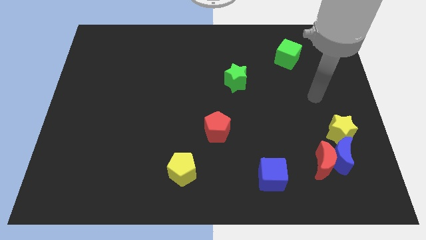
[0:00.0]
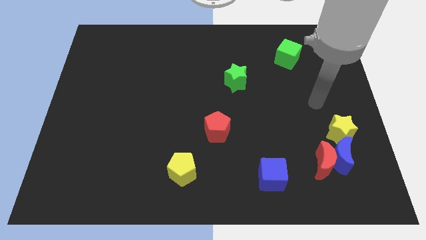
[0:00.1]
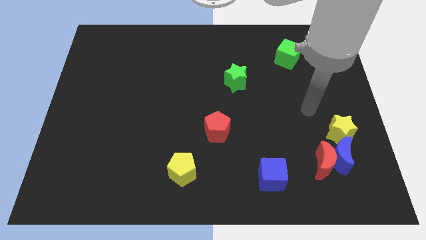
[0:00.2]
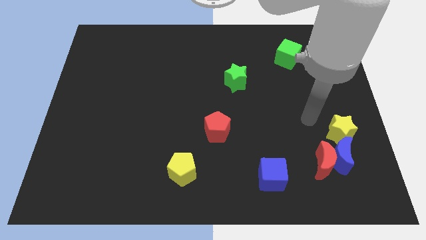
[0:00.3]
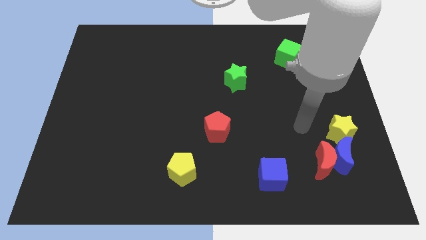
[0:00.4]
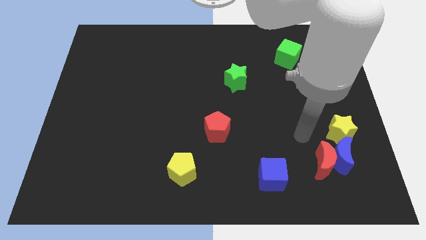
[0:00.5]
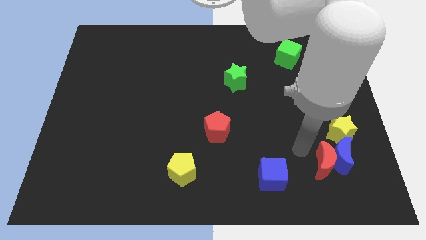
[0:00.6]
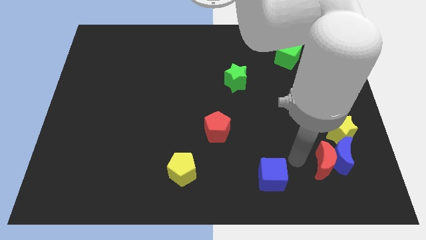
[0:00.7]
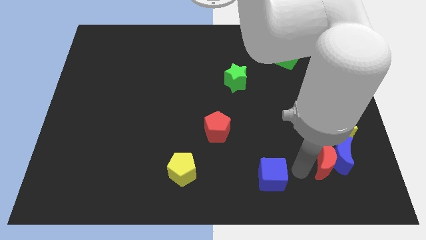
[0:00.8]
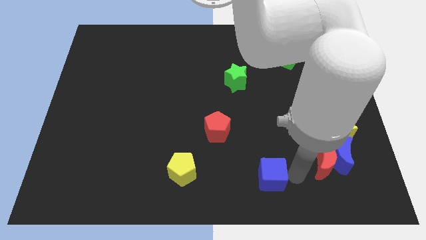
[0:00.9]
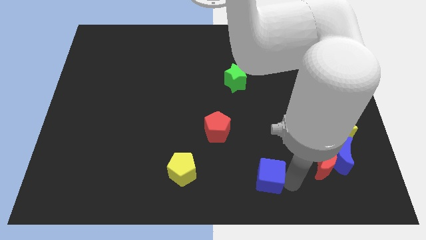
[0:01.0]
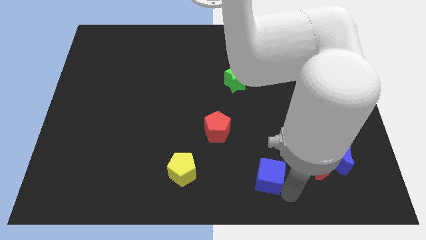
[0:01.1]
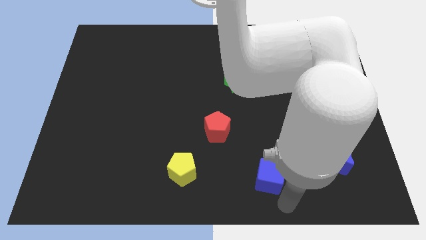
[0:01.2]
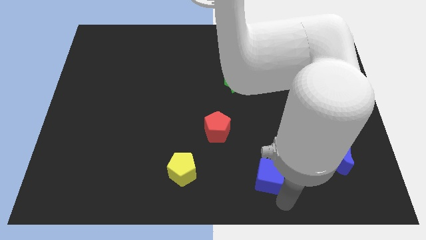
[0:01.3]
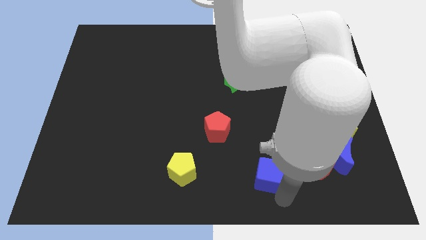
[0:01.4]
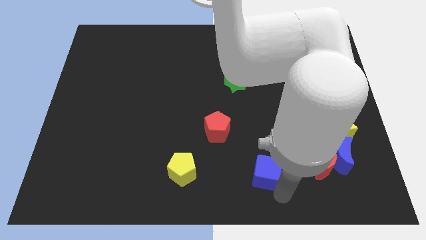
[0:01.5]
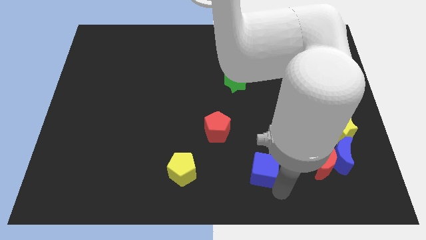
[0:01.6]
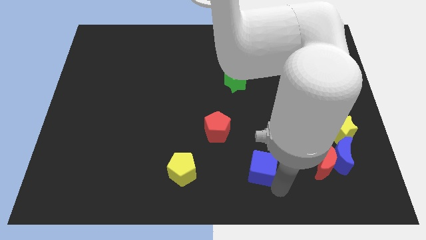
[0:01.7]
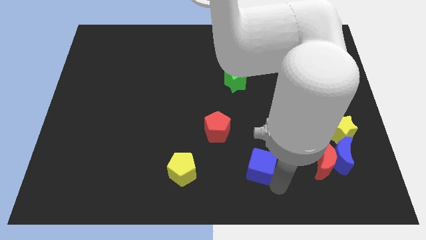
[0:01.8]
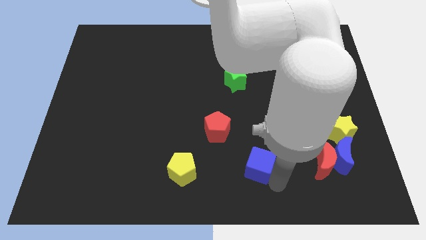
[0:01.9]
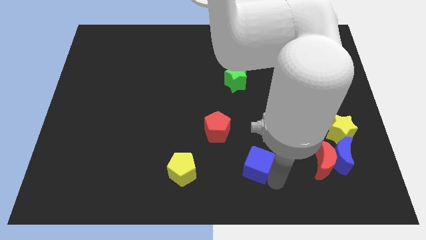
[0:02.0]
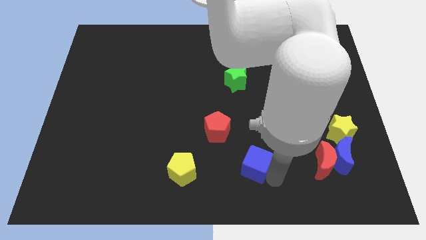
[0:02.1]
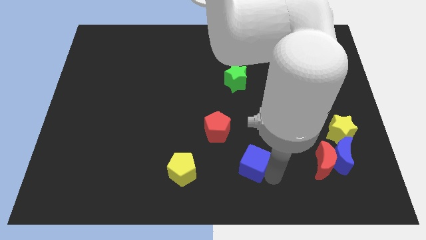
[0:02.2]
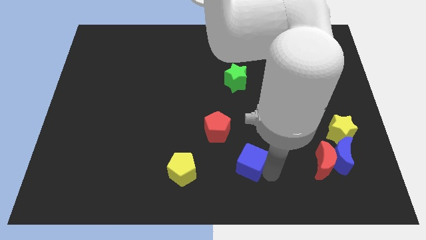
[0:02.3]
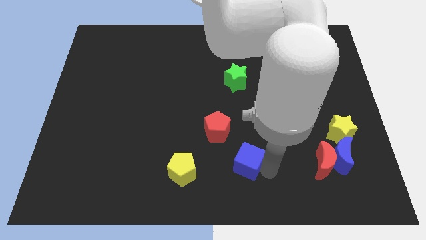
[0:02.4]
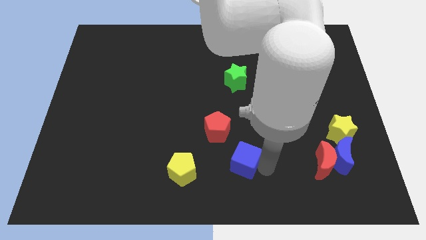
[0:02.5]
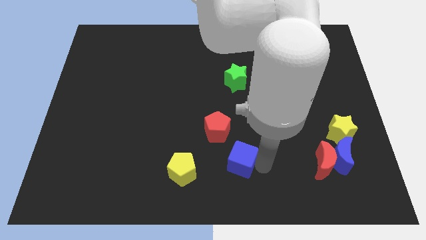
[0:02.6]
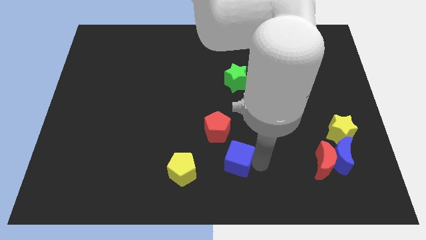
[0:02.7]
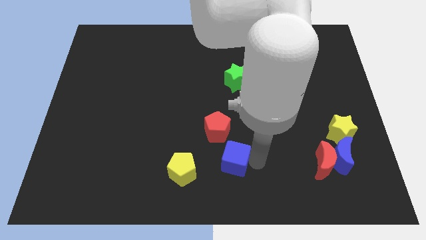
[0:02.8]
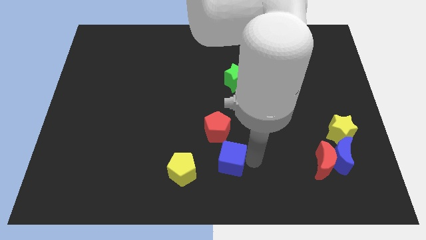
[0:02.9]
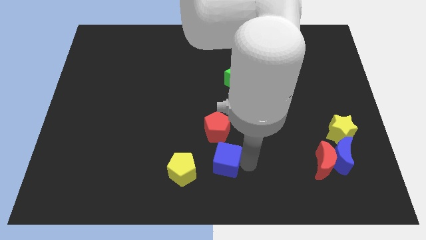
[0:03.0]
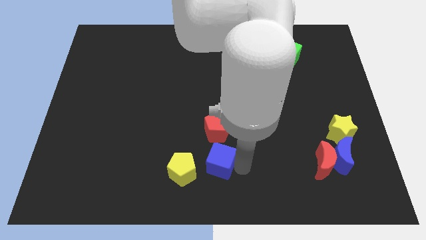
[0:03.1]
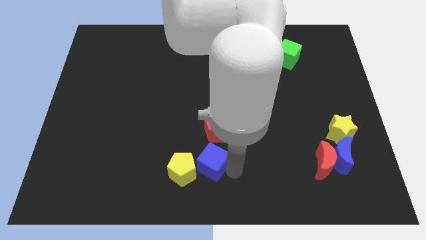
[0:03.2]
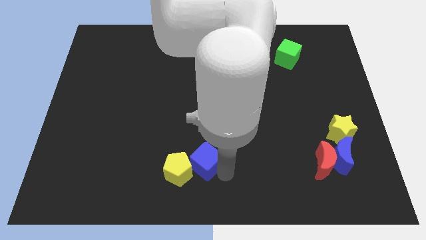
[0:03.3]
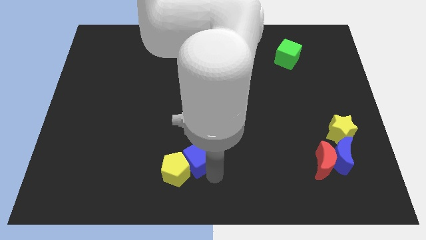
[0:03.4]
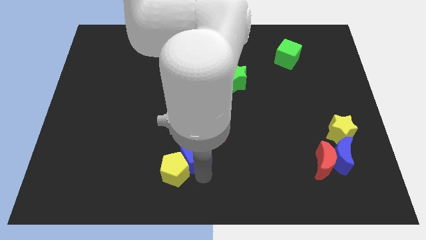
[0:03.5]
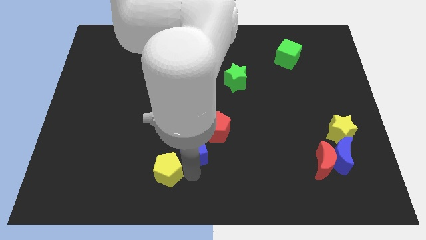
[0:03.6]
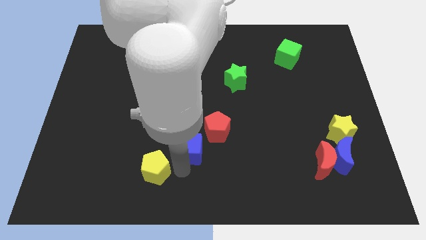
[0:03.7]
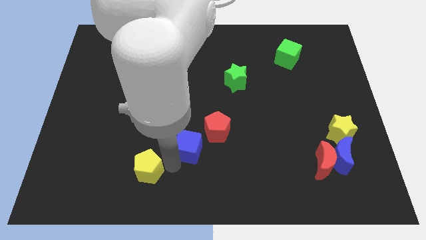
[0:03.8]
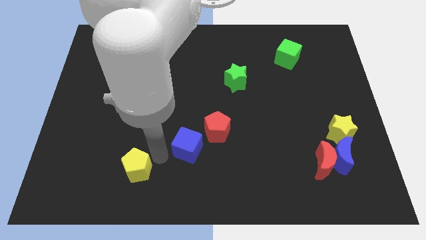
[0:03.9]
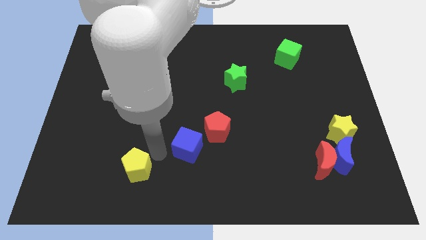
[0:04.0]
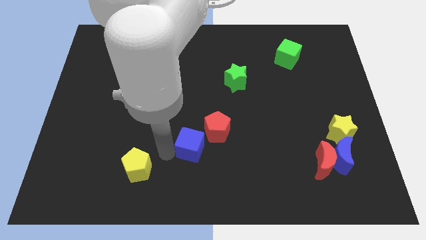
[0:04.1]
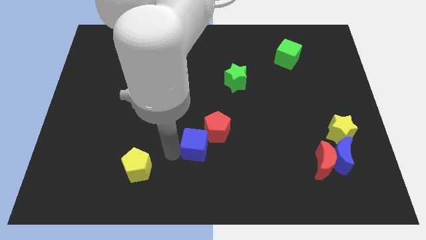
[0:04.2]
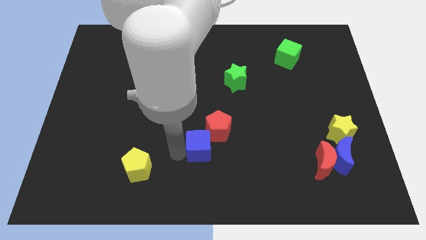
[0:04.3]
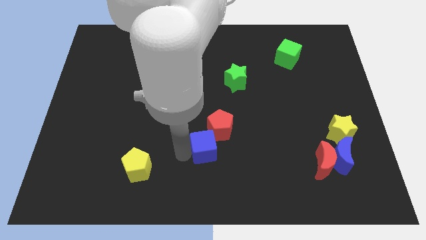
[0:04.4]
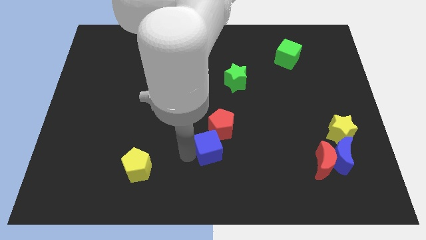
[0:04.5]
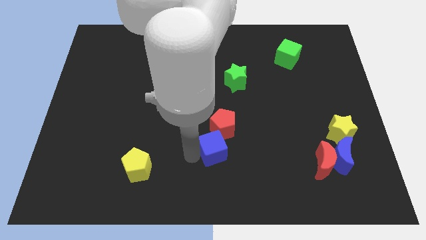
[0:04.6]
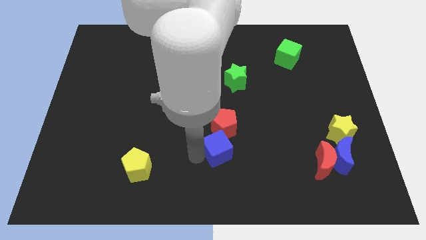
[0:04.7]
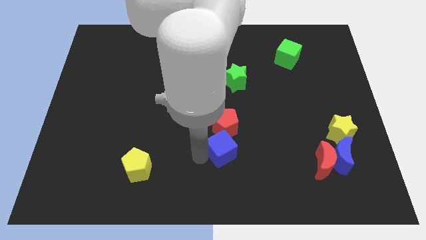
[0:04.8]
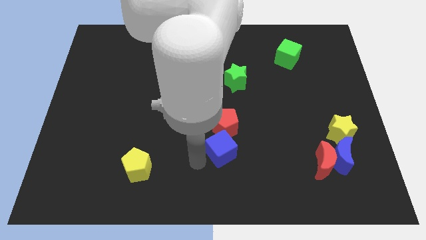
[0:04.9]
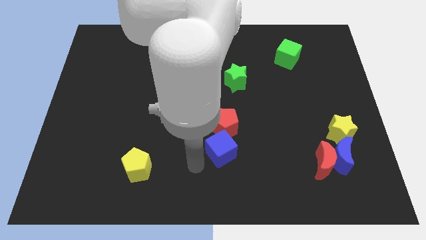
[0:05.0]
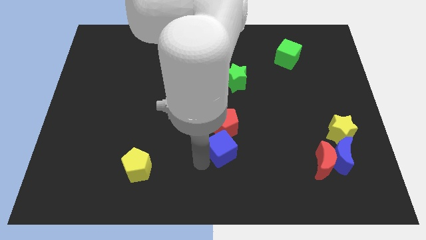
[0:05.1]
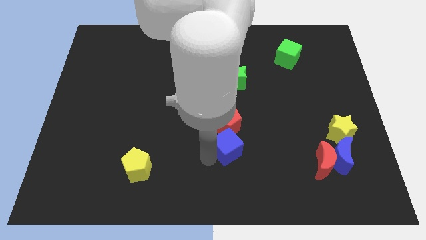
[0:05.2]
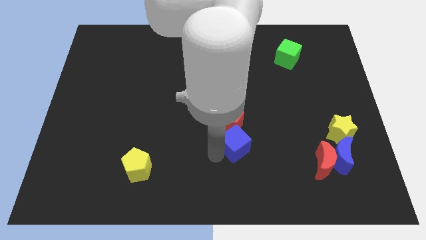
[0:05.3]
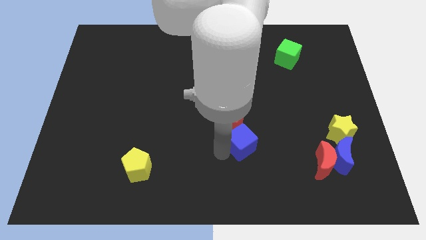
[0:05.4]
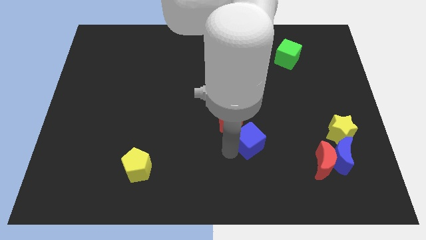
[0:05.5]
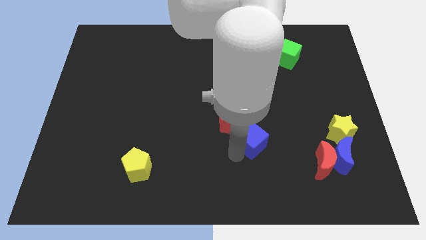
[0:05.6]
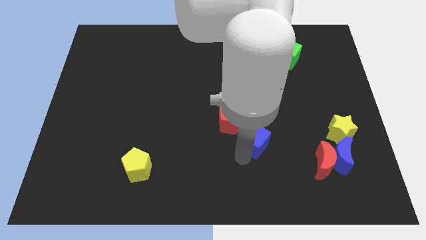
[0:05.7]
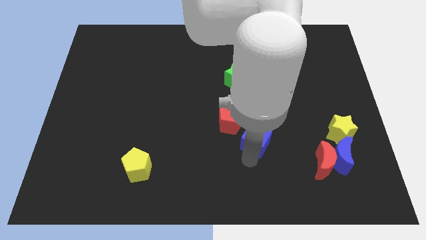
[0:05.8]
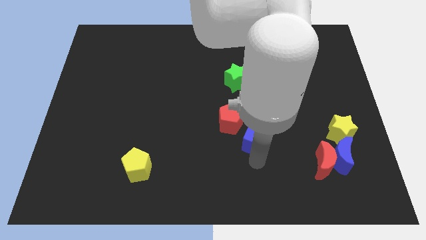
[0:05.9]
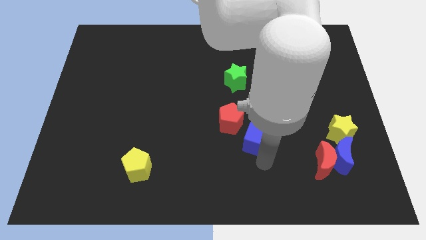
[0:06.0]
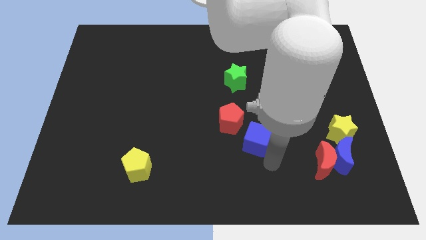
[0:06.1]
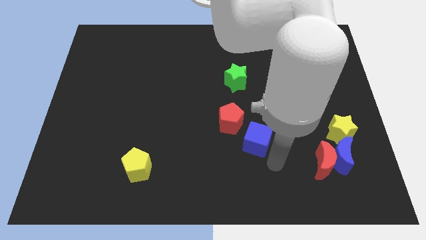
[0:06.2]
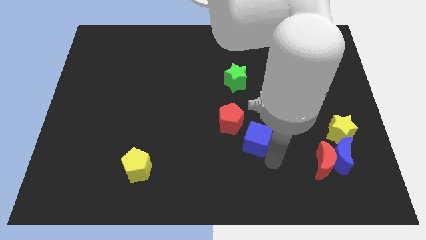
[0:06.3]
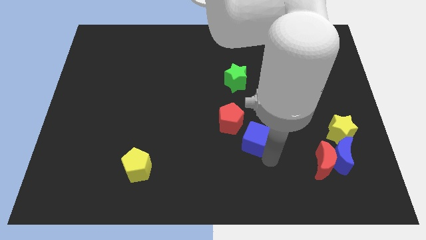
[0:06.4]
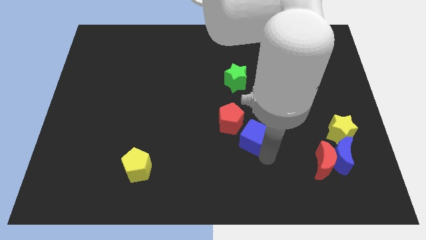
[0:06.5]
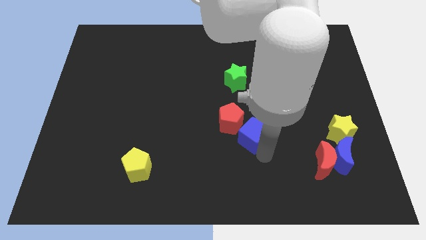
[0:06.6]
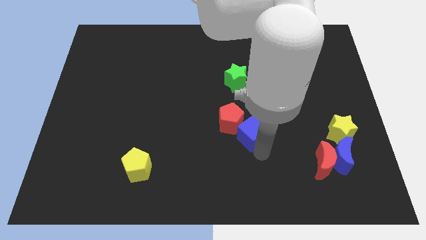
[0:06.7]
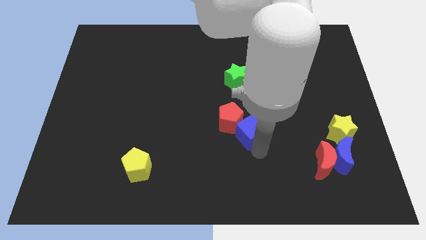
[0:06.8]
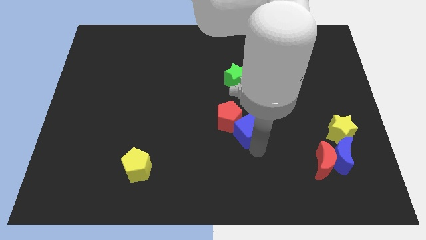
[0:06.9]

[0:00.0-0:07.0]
move the blue cube to the center of the board
